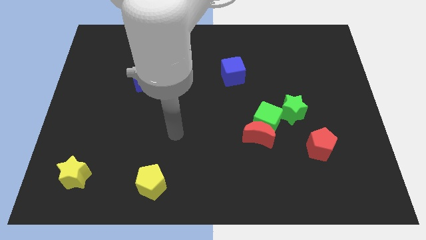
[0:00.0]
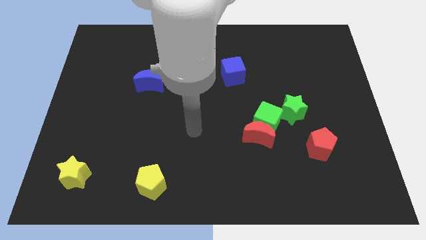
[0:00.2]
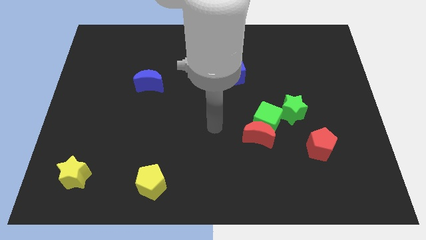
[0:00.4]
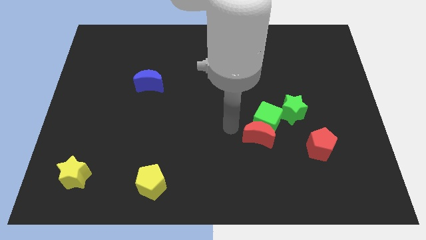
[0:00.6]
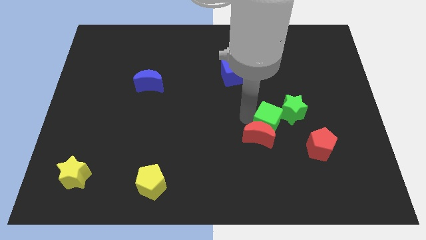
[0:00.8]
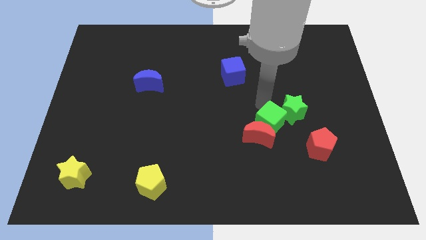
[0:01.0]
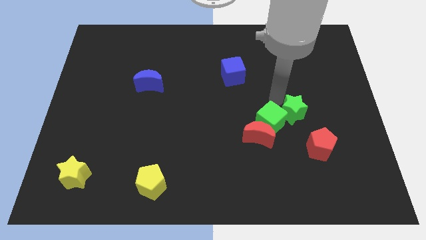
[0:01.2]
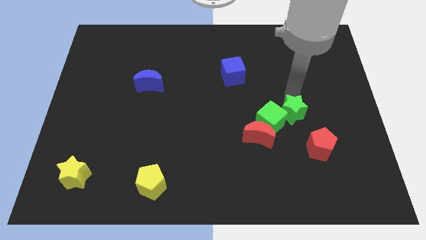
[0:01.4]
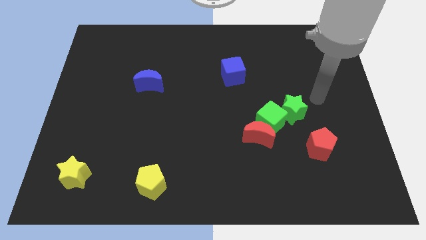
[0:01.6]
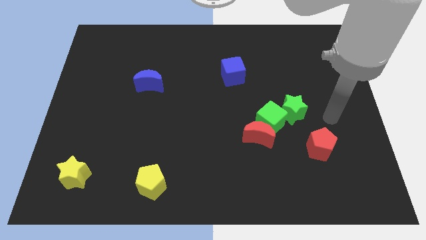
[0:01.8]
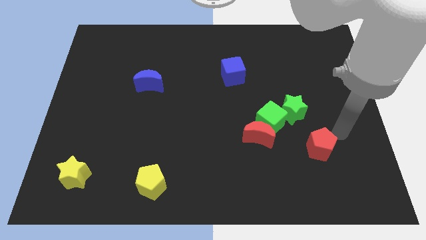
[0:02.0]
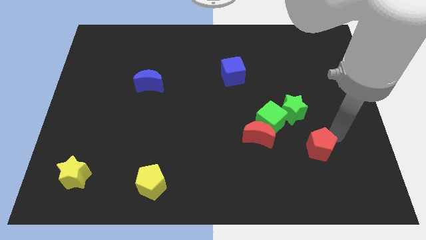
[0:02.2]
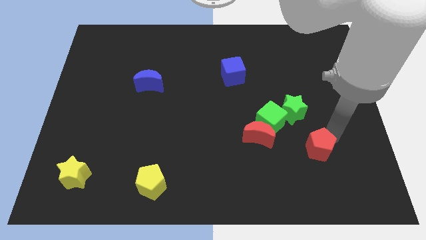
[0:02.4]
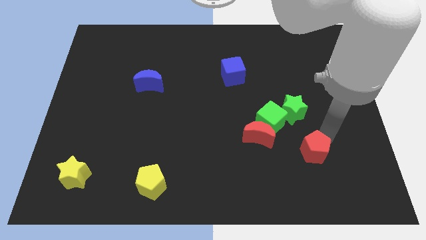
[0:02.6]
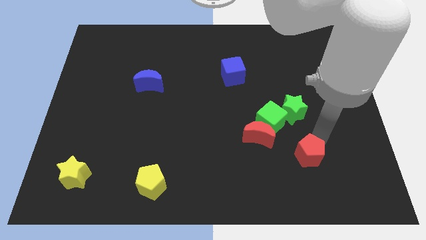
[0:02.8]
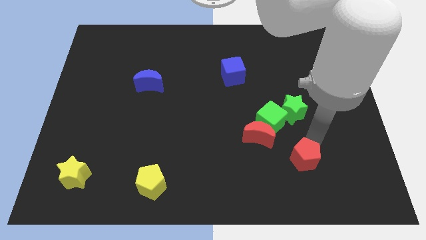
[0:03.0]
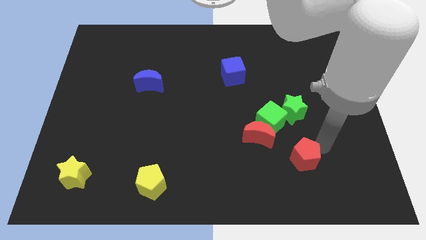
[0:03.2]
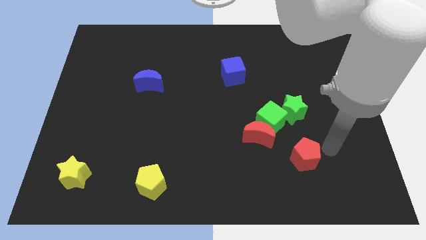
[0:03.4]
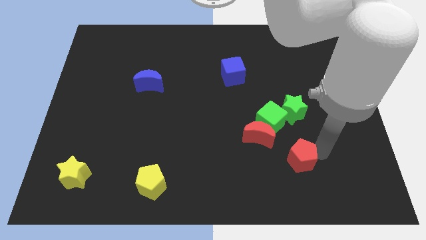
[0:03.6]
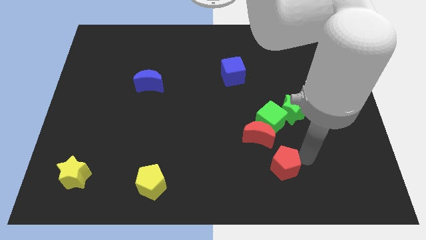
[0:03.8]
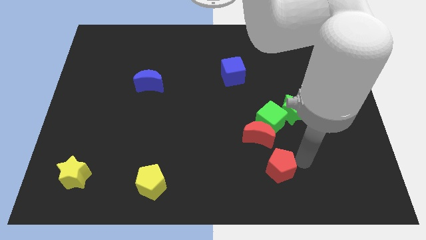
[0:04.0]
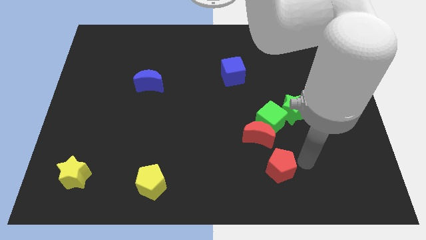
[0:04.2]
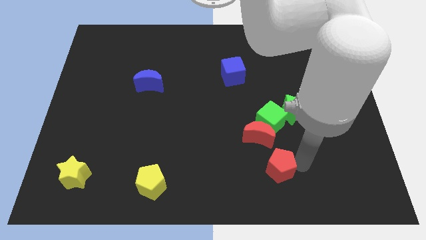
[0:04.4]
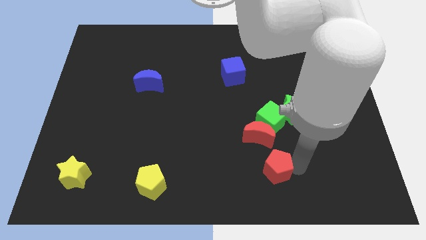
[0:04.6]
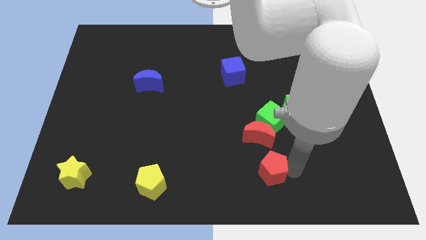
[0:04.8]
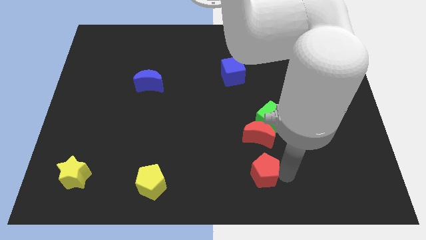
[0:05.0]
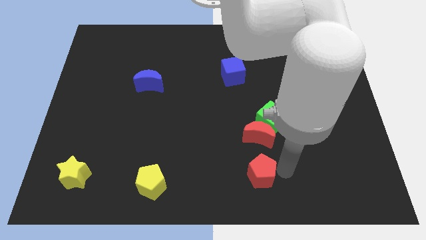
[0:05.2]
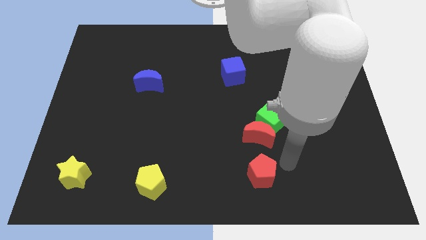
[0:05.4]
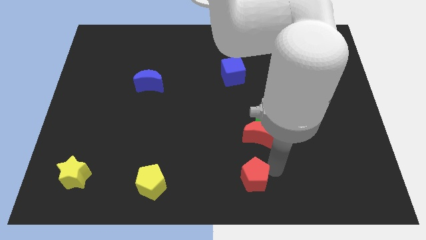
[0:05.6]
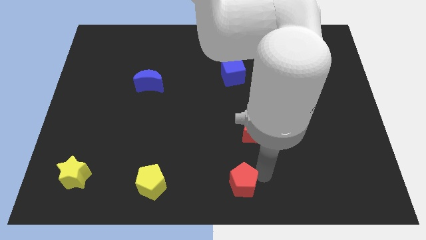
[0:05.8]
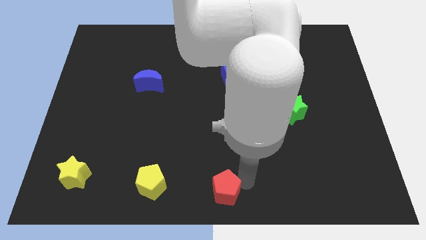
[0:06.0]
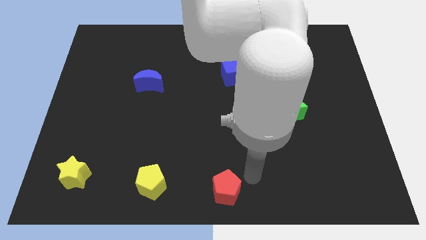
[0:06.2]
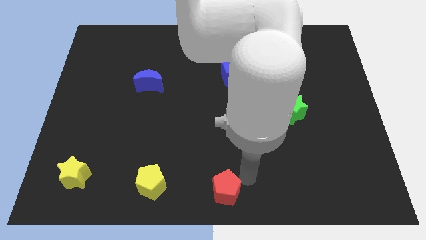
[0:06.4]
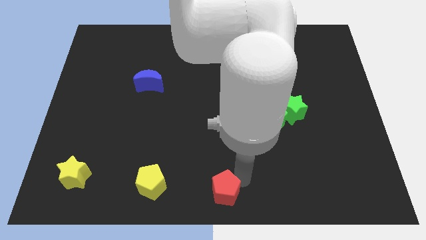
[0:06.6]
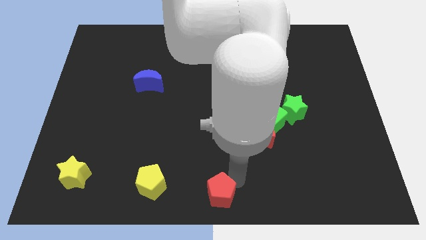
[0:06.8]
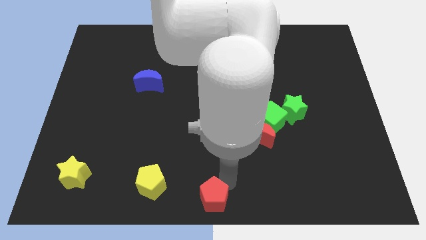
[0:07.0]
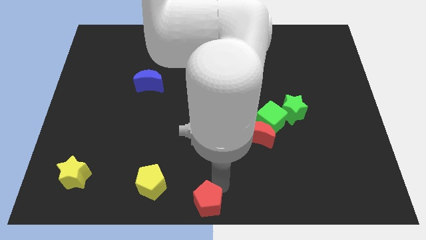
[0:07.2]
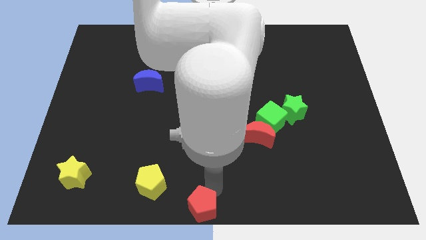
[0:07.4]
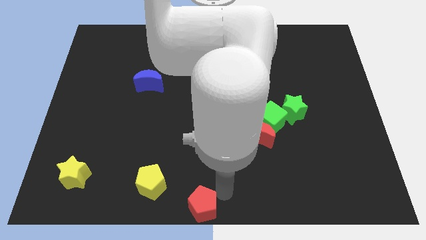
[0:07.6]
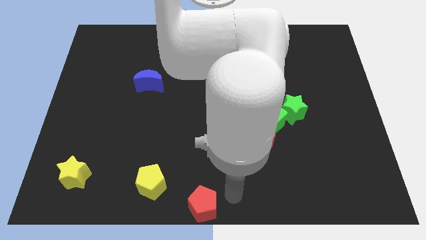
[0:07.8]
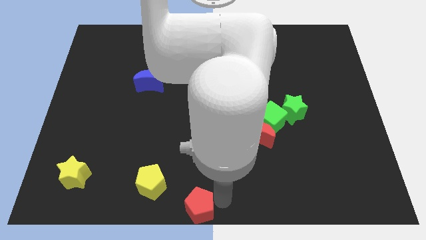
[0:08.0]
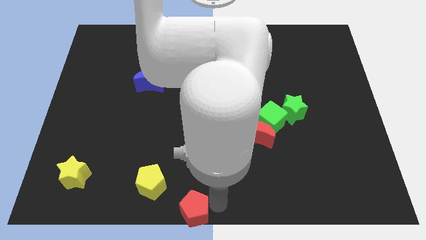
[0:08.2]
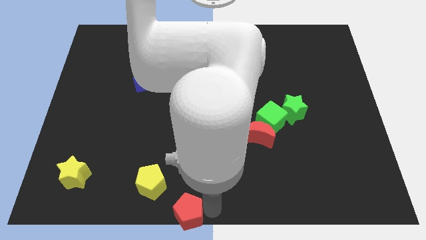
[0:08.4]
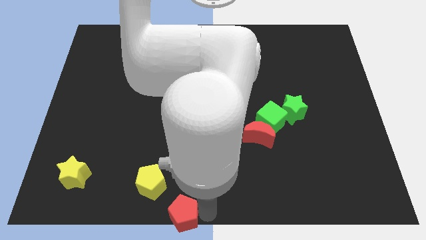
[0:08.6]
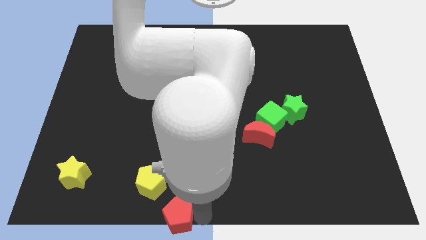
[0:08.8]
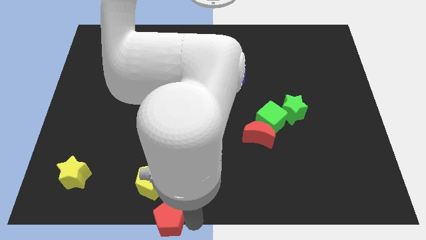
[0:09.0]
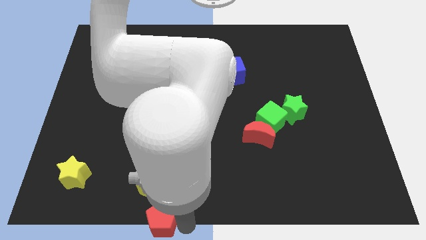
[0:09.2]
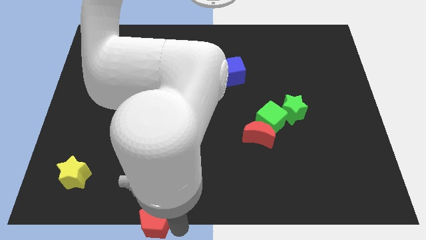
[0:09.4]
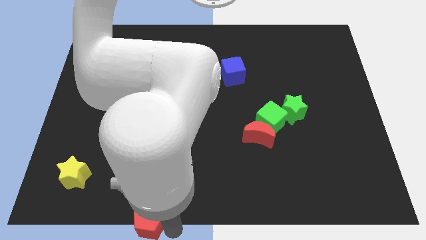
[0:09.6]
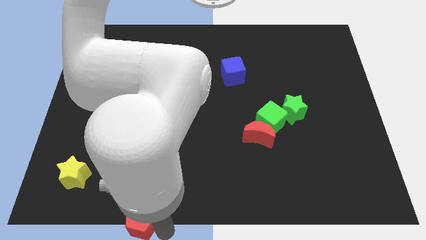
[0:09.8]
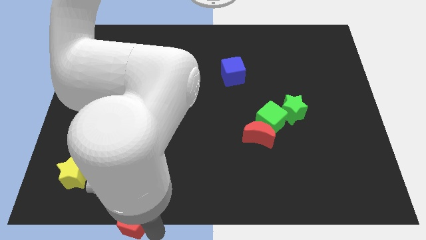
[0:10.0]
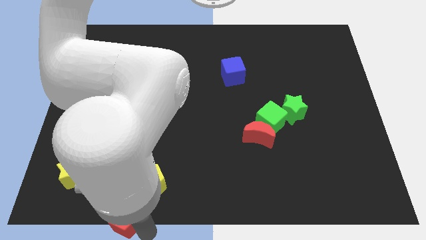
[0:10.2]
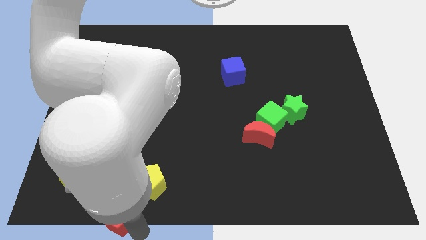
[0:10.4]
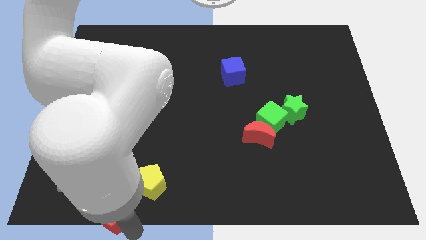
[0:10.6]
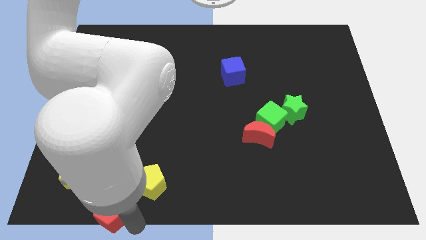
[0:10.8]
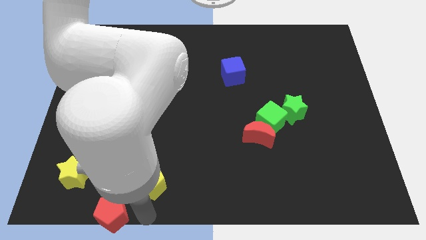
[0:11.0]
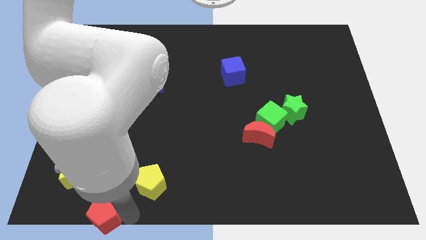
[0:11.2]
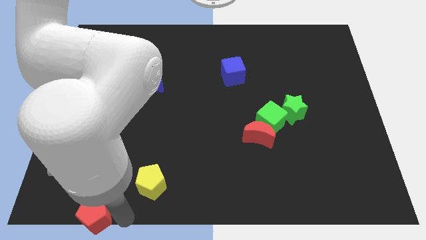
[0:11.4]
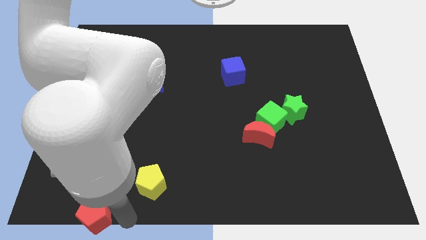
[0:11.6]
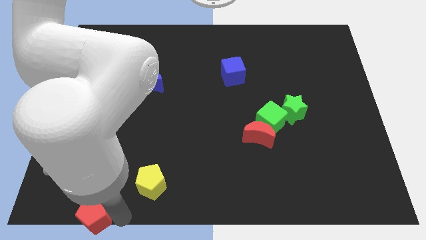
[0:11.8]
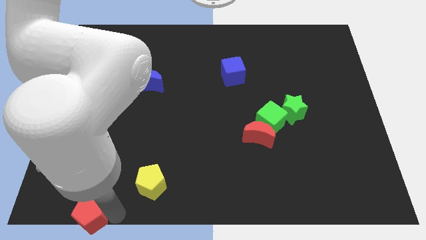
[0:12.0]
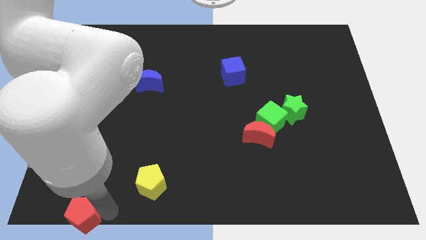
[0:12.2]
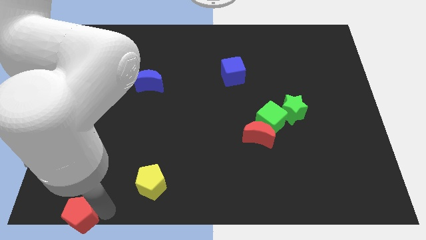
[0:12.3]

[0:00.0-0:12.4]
put the red pentagon to the lower left corner

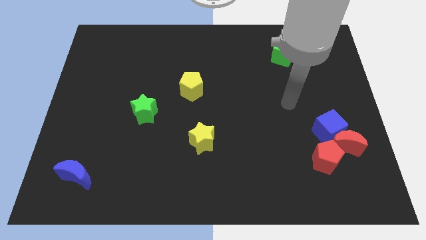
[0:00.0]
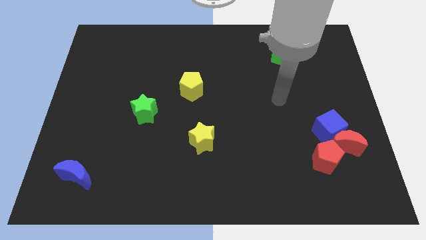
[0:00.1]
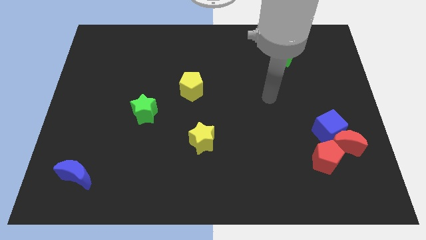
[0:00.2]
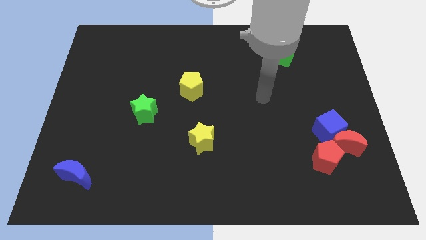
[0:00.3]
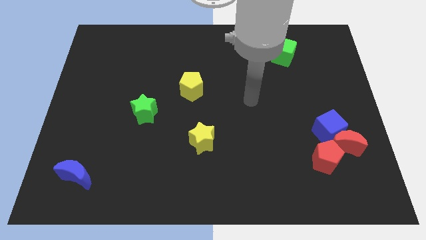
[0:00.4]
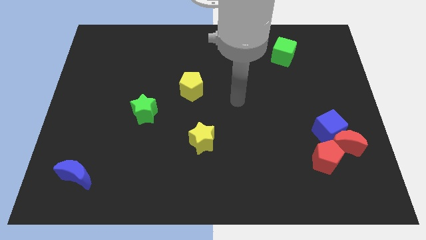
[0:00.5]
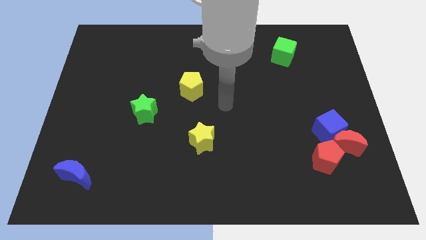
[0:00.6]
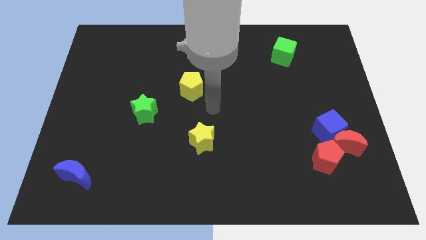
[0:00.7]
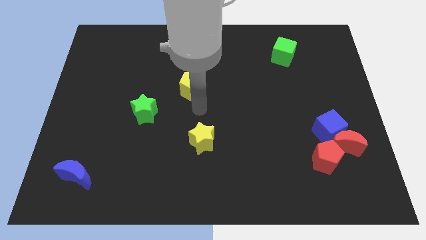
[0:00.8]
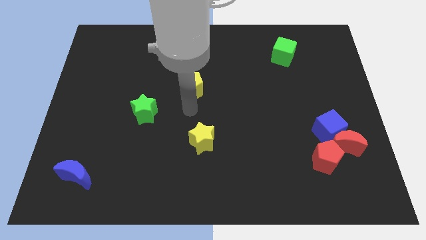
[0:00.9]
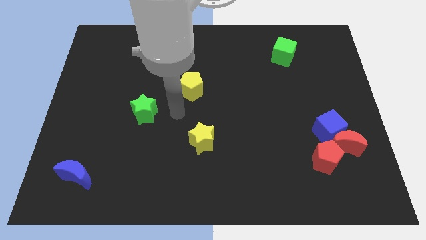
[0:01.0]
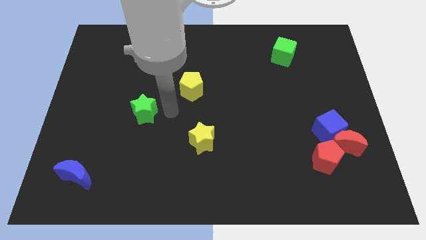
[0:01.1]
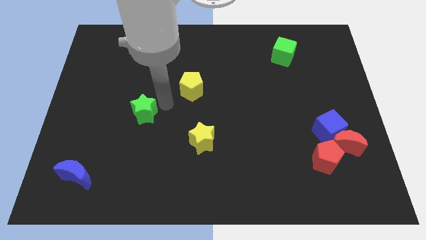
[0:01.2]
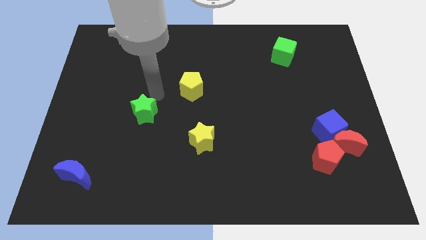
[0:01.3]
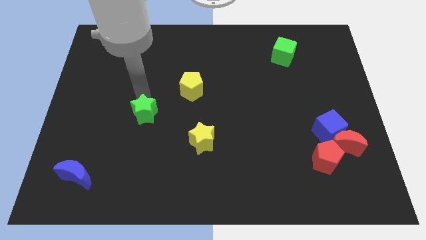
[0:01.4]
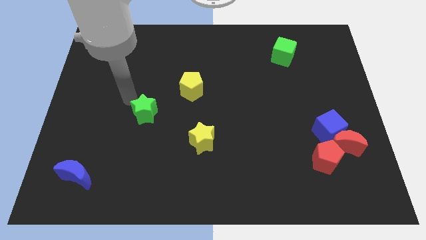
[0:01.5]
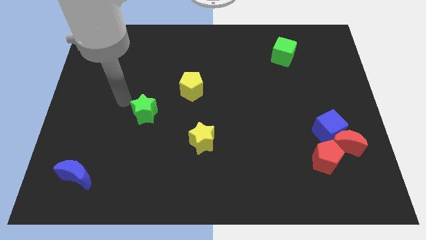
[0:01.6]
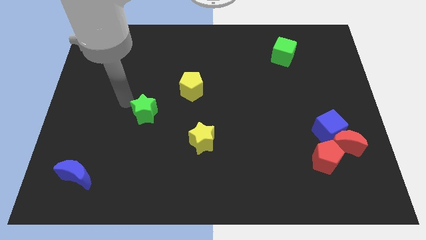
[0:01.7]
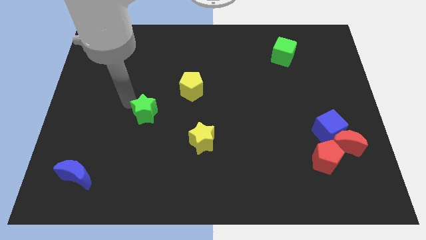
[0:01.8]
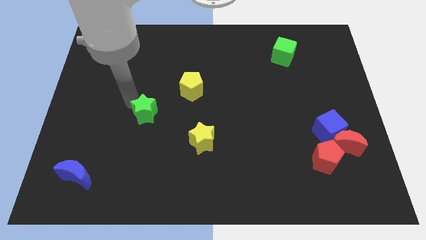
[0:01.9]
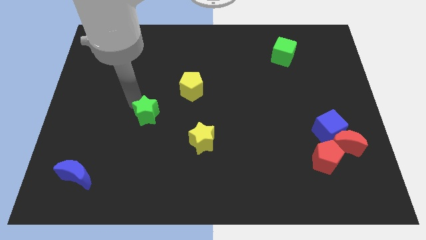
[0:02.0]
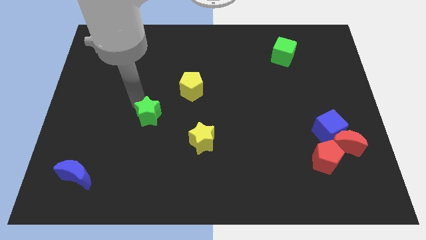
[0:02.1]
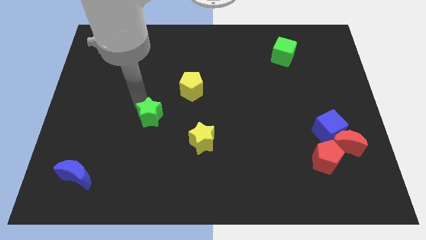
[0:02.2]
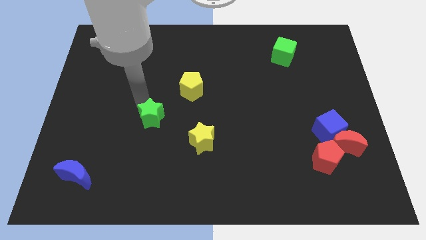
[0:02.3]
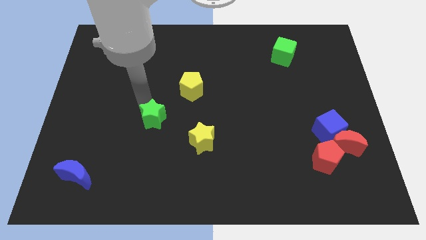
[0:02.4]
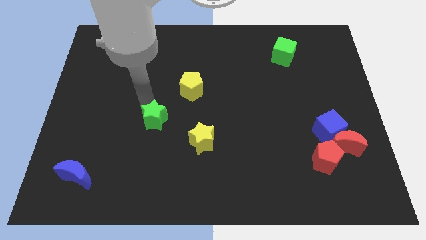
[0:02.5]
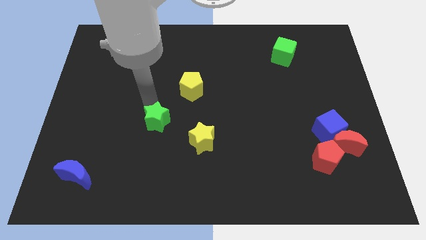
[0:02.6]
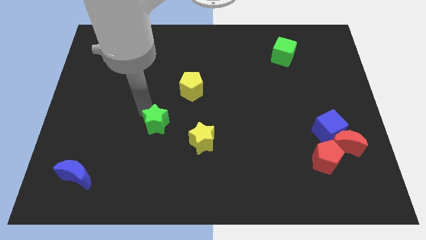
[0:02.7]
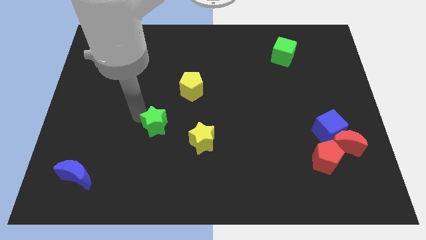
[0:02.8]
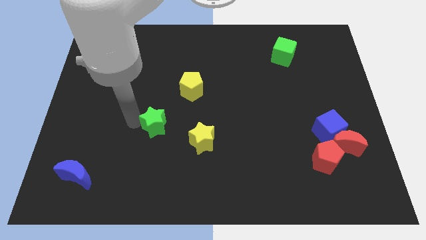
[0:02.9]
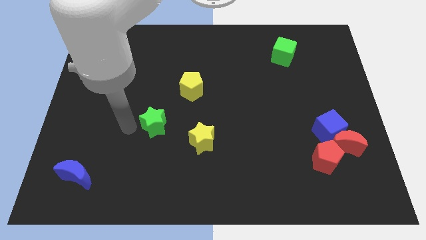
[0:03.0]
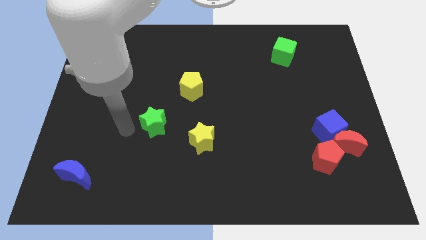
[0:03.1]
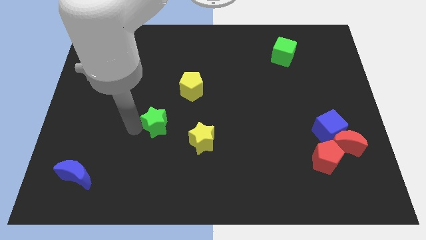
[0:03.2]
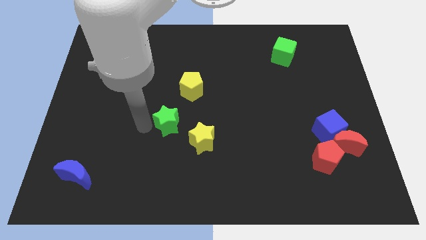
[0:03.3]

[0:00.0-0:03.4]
slide the green star to the center
